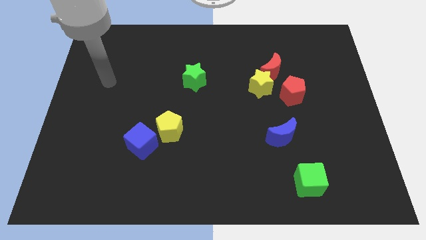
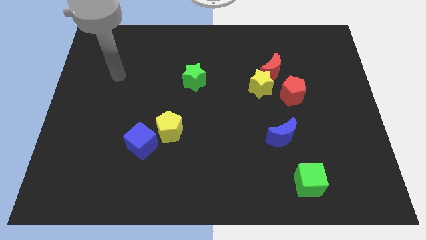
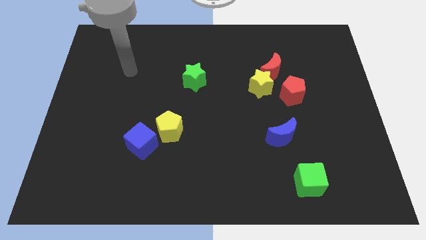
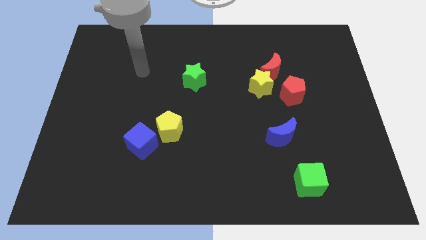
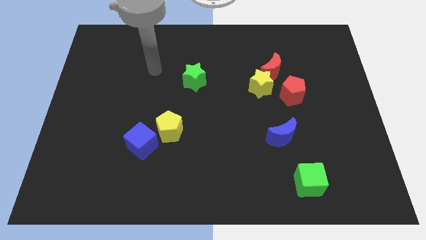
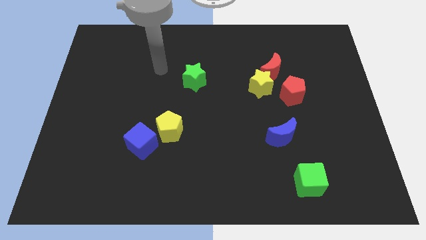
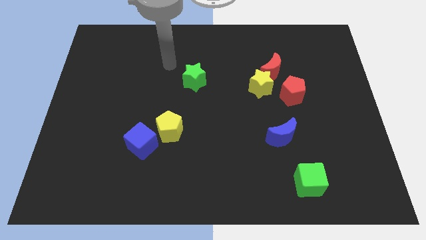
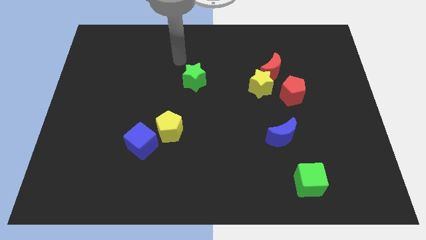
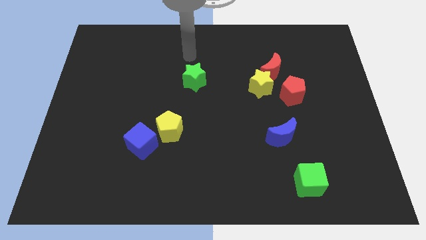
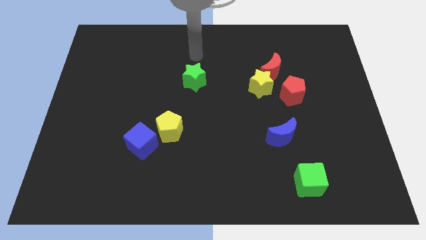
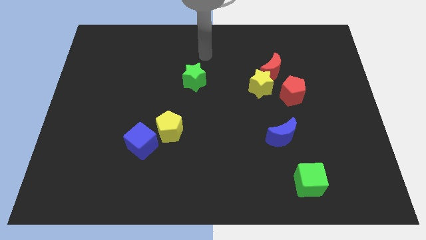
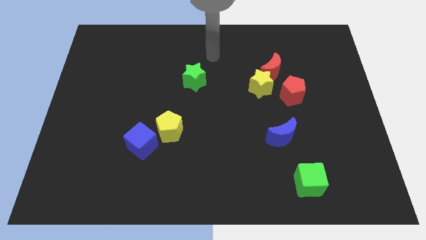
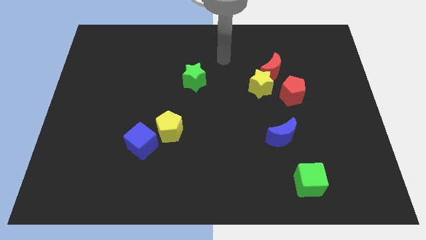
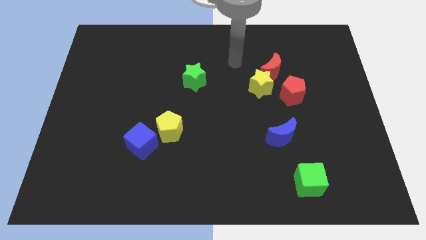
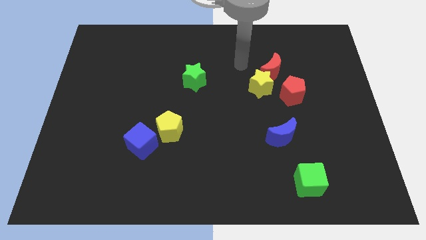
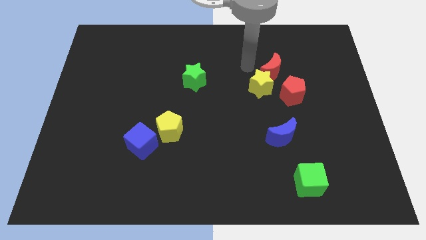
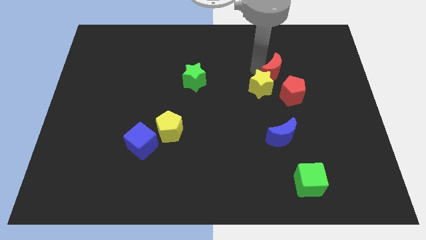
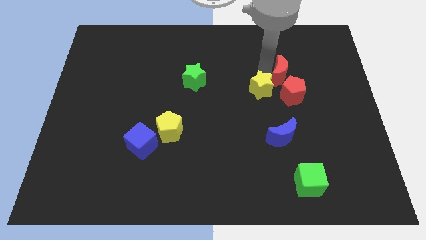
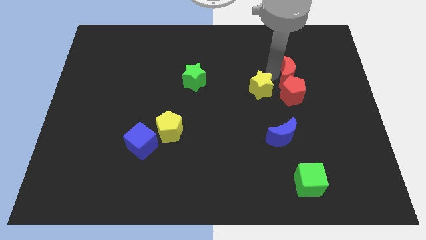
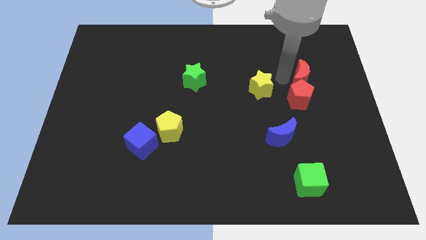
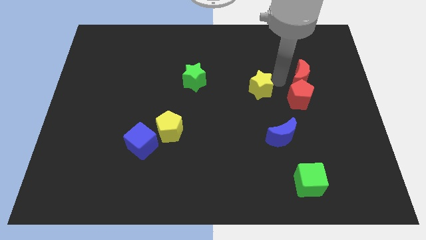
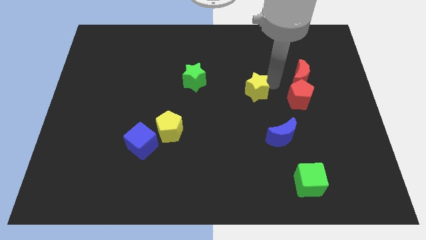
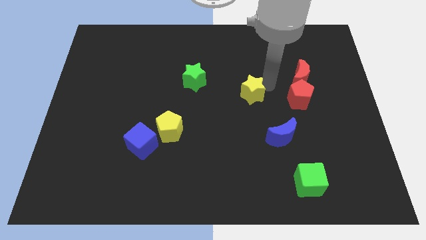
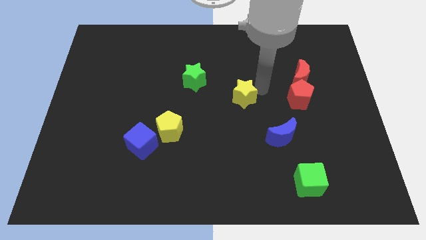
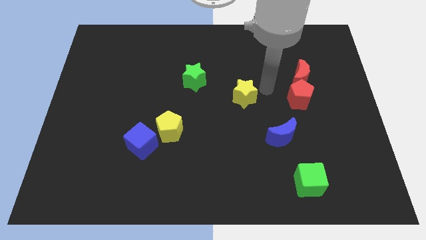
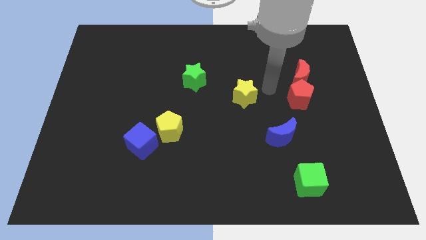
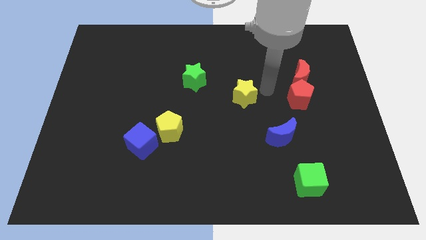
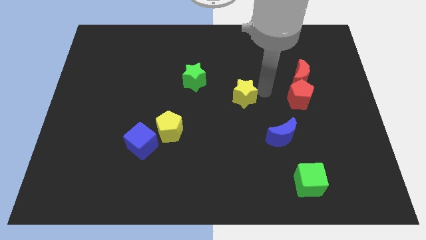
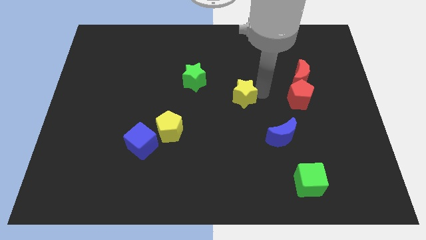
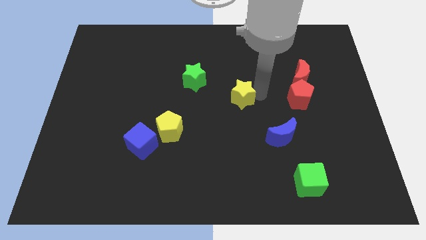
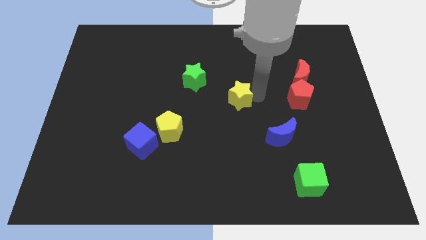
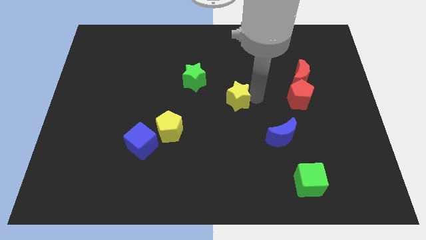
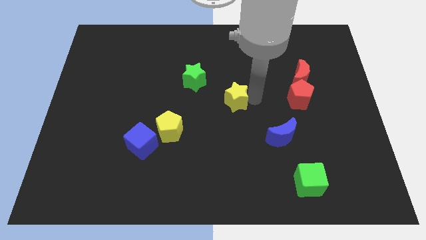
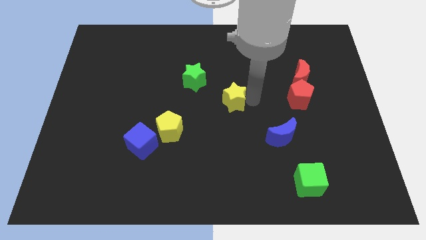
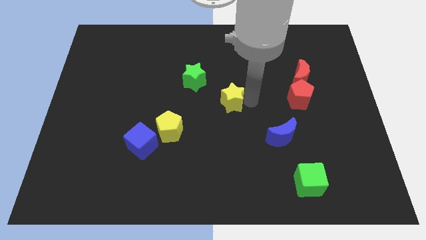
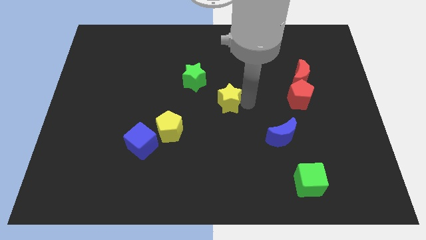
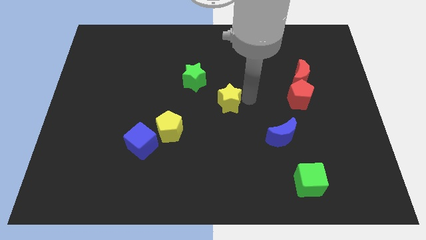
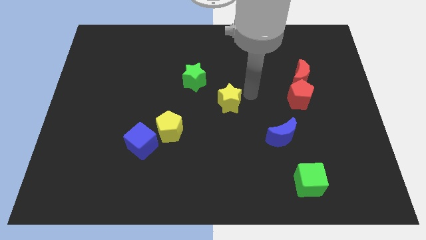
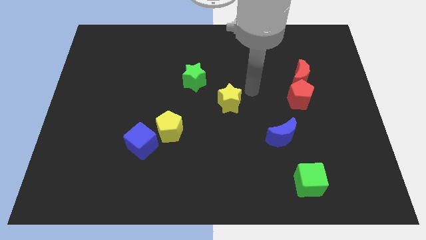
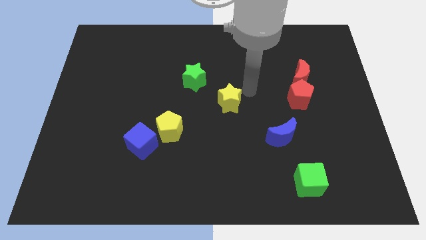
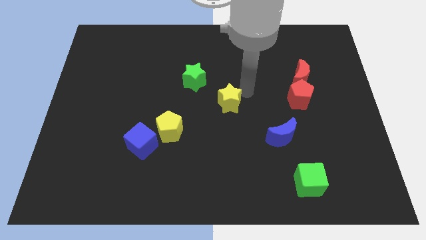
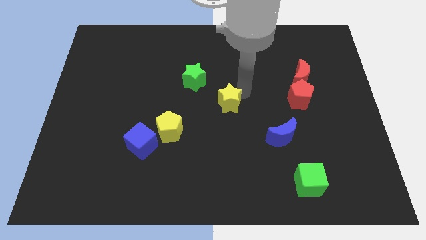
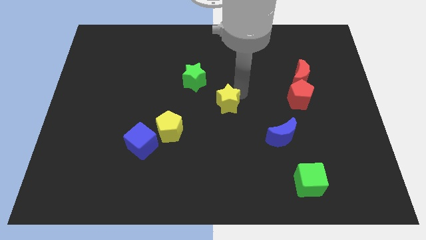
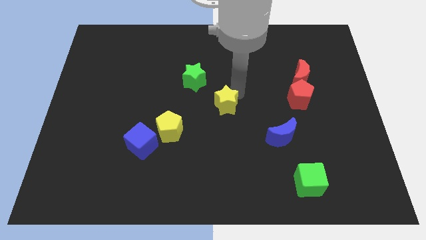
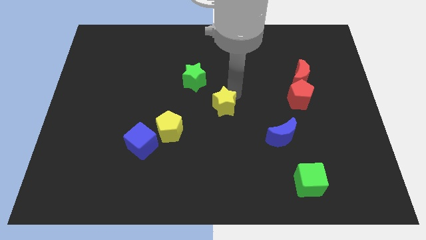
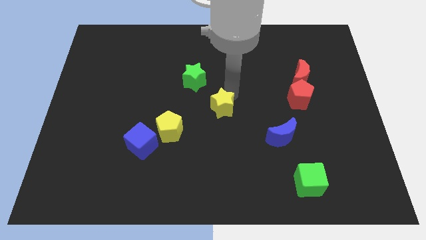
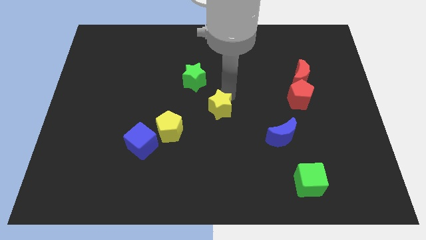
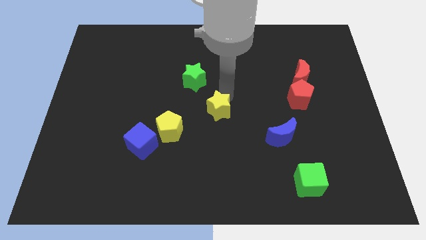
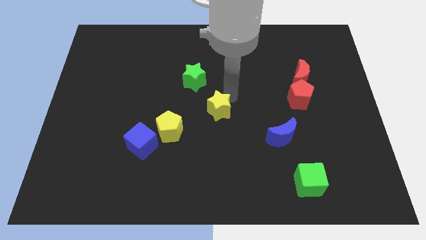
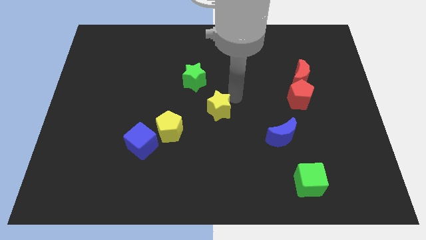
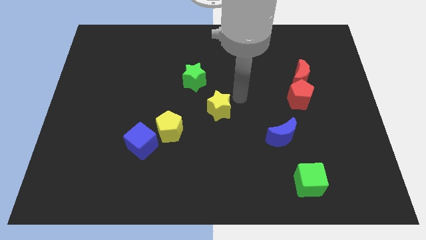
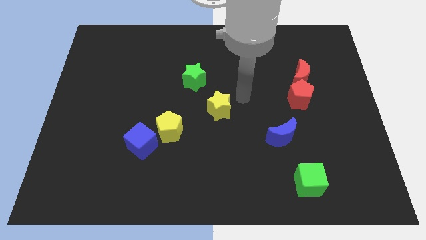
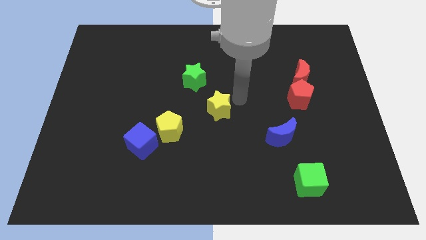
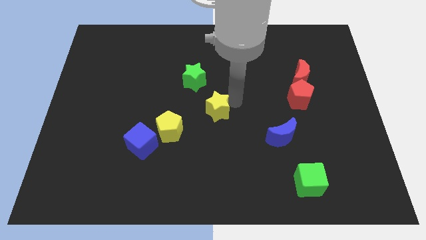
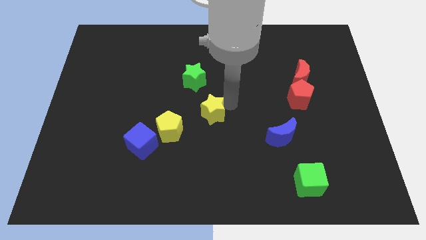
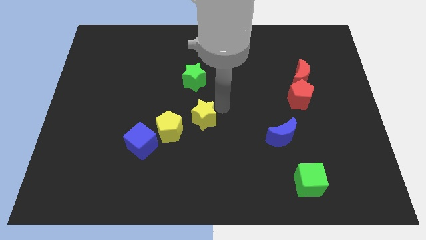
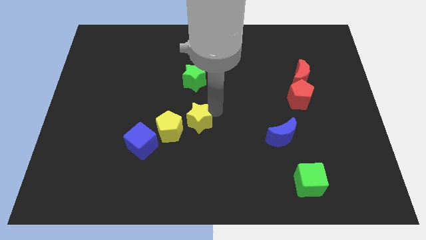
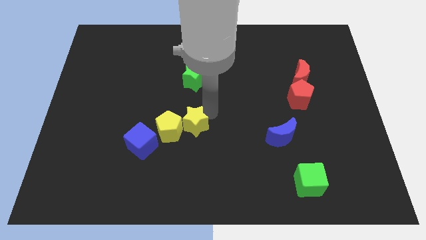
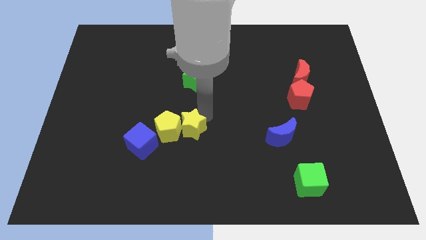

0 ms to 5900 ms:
move the yellow star downwards and then to the left

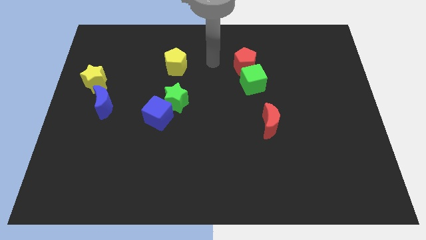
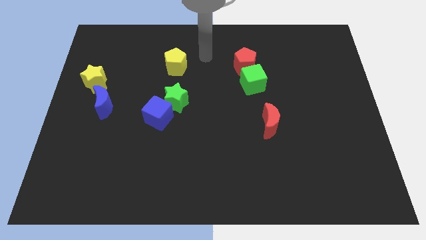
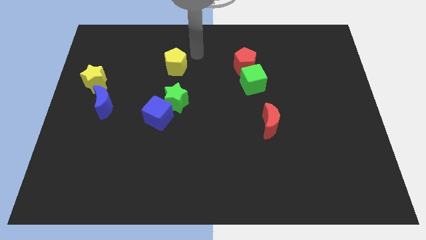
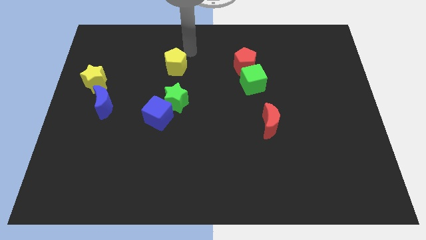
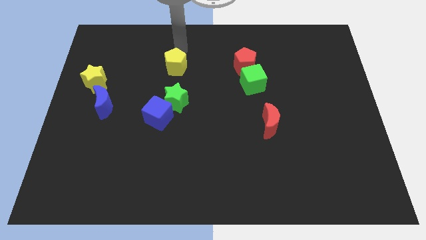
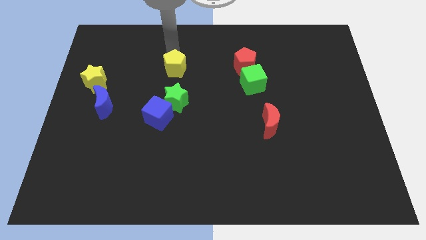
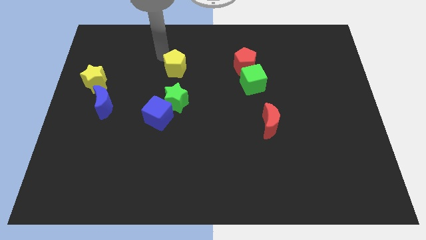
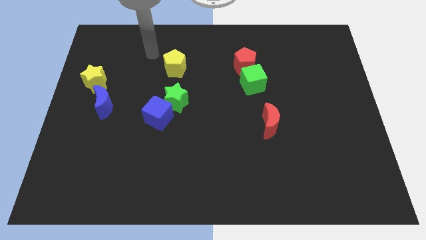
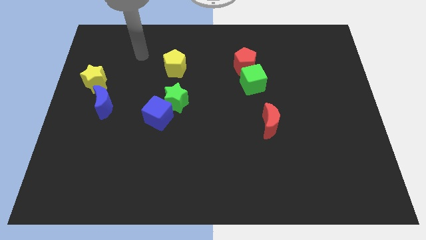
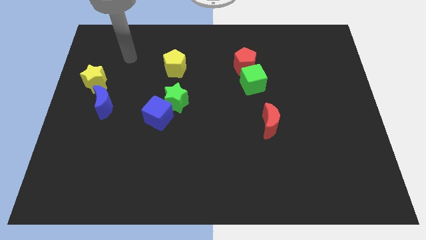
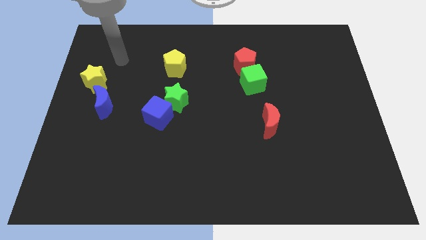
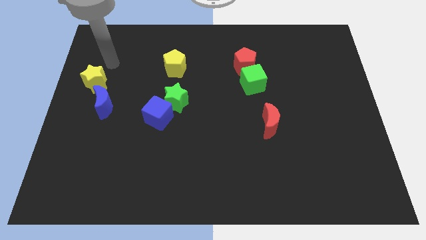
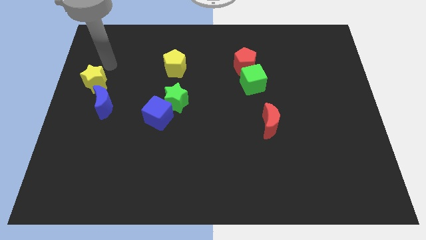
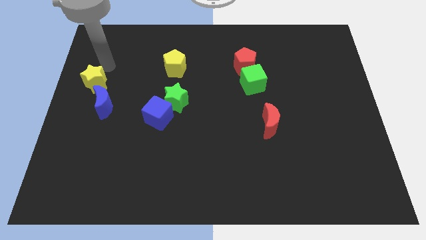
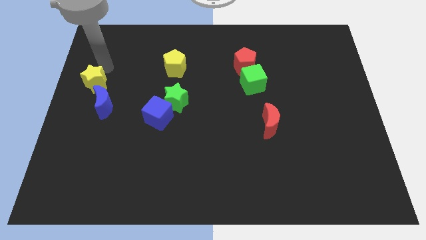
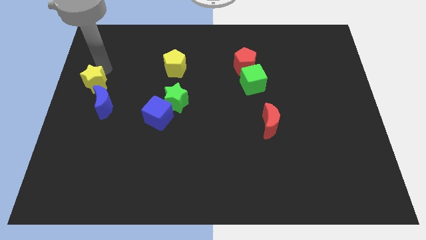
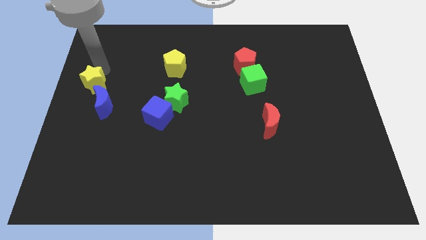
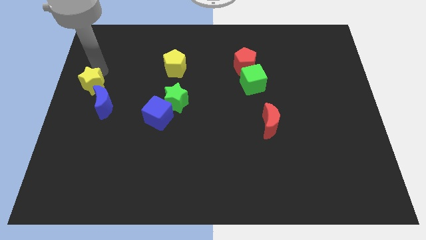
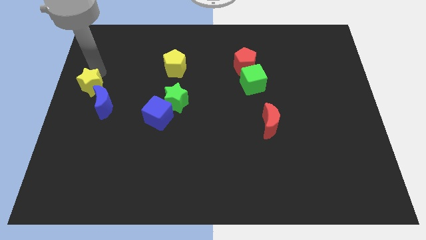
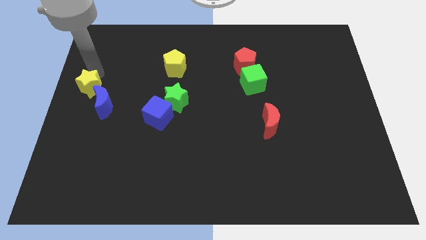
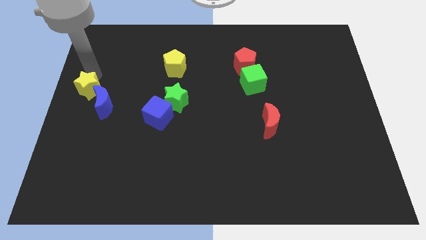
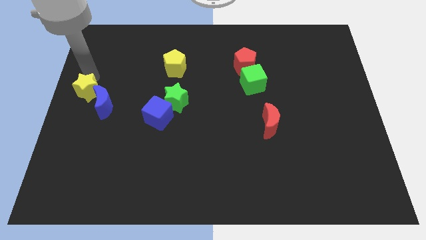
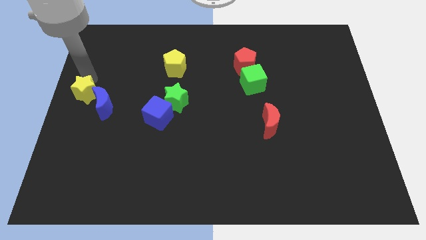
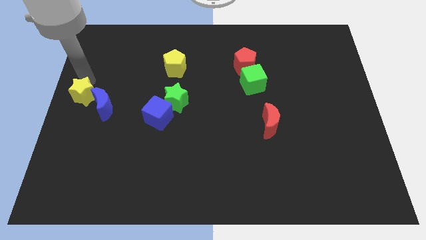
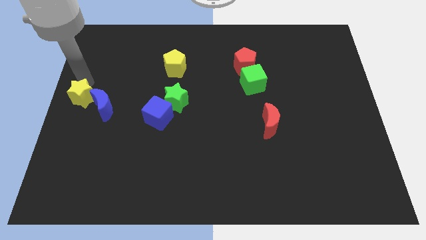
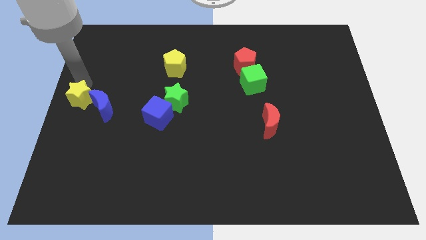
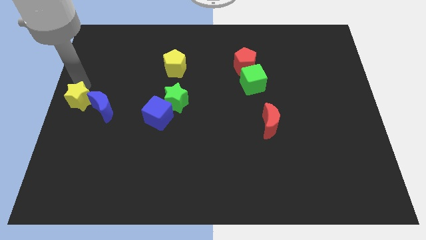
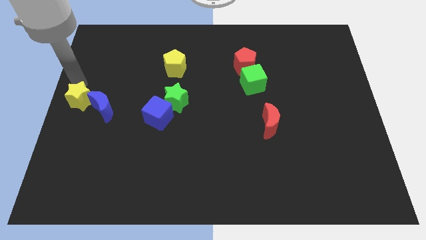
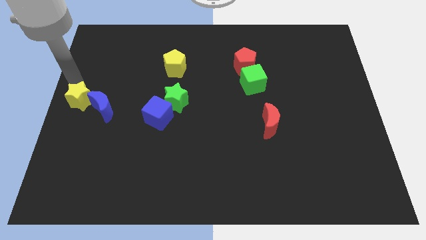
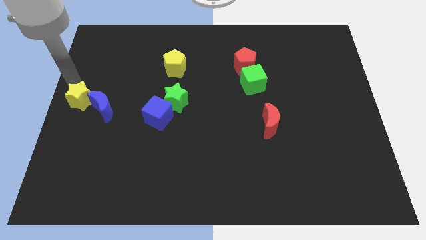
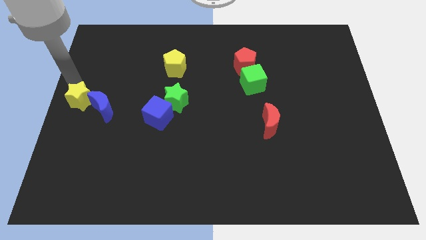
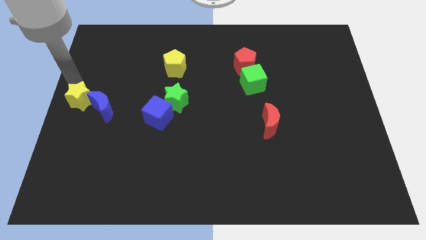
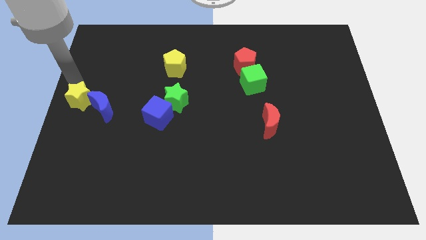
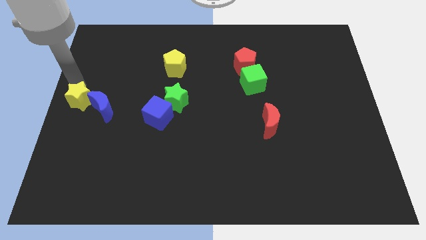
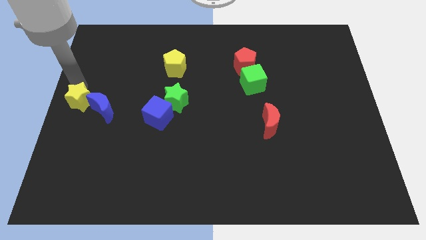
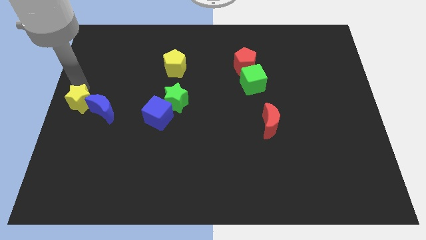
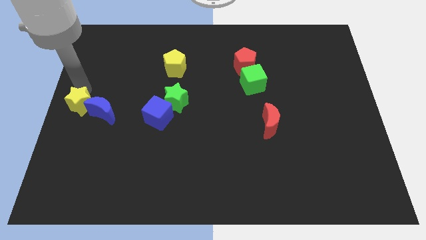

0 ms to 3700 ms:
move the yellow star a bit down
